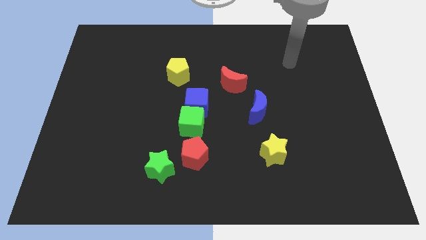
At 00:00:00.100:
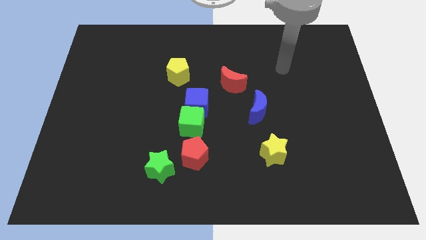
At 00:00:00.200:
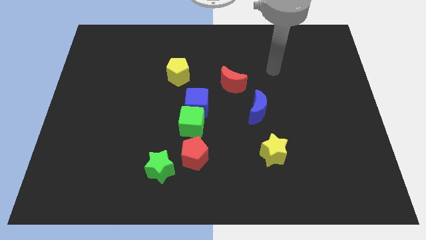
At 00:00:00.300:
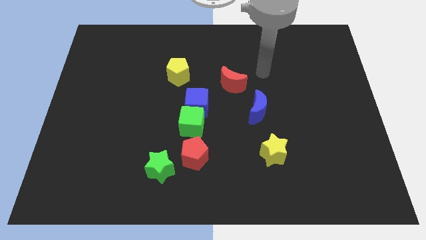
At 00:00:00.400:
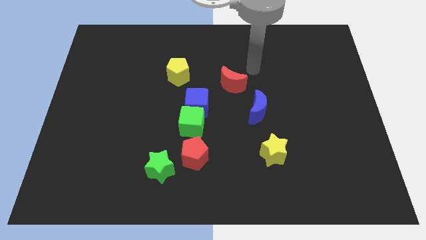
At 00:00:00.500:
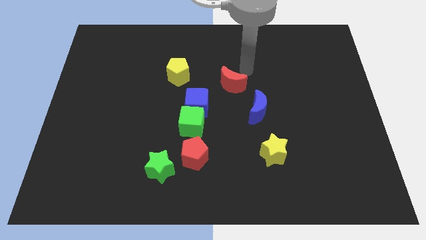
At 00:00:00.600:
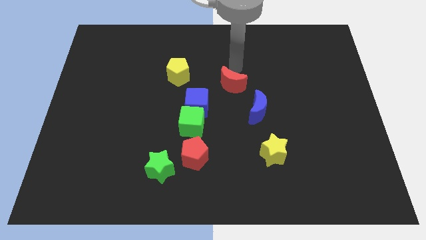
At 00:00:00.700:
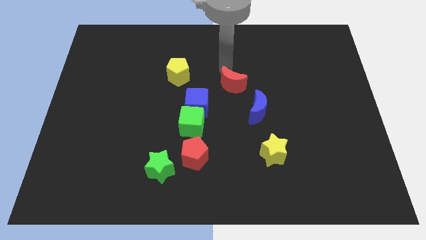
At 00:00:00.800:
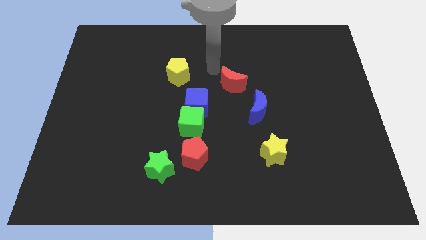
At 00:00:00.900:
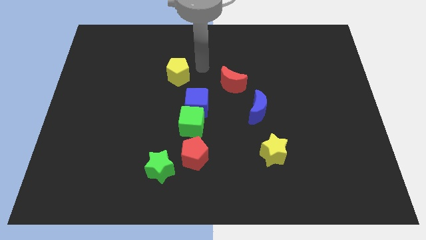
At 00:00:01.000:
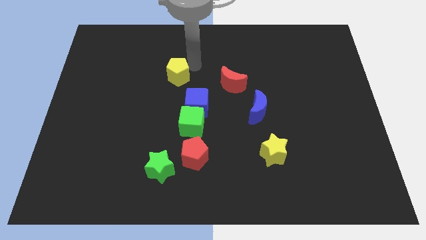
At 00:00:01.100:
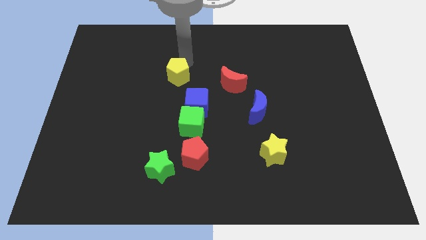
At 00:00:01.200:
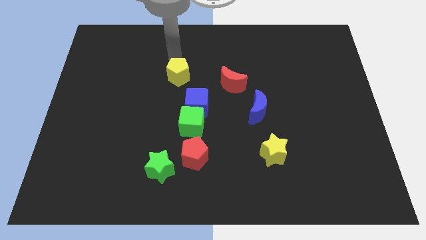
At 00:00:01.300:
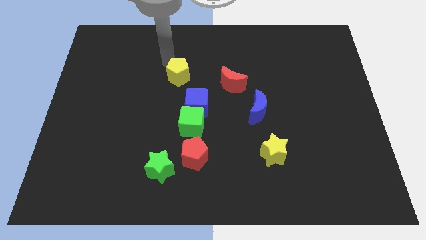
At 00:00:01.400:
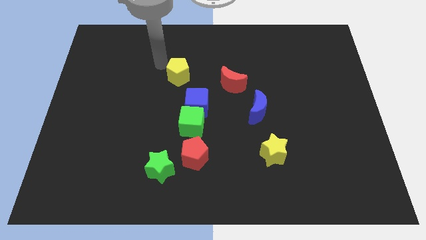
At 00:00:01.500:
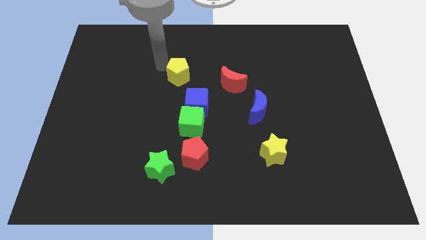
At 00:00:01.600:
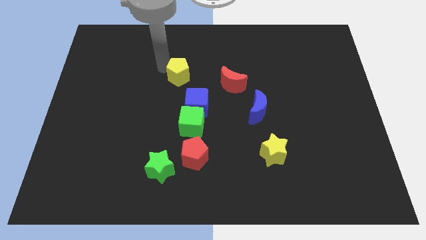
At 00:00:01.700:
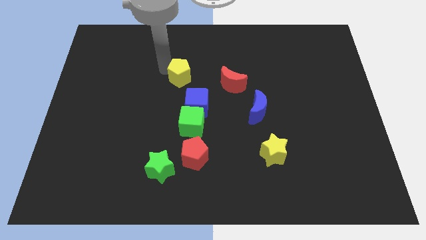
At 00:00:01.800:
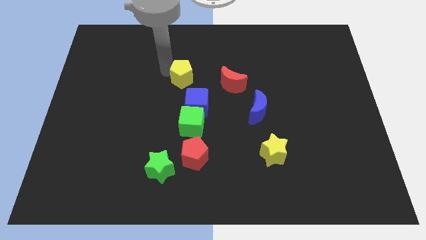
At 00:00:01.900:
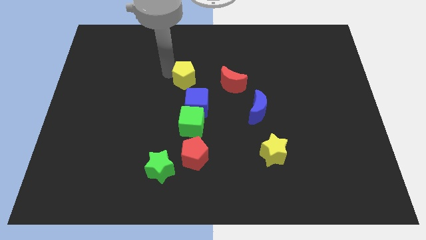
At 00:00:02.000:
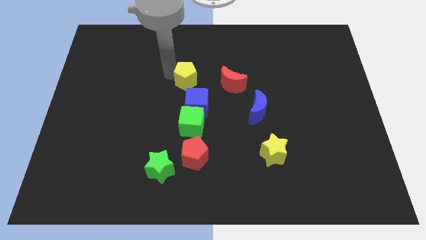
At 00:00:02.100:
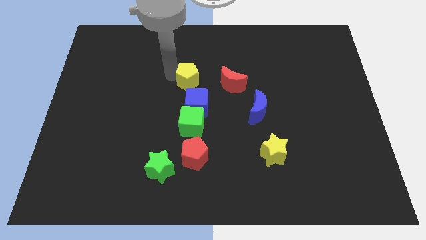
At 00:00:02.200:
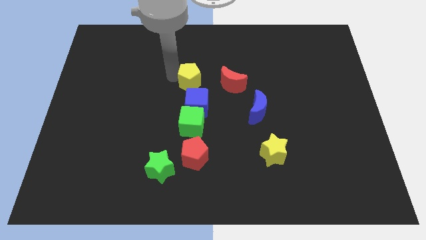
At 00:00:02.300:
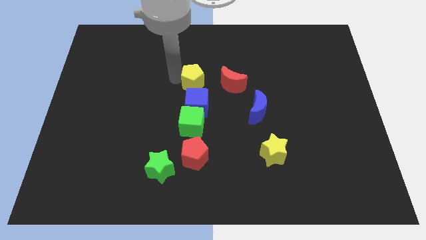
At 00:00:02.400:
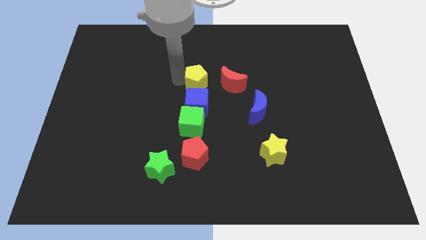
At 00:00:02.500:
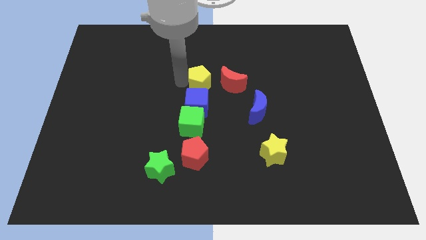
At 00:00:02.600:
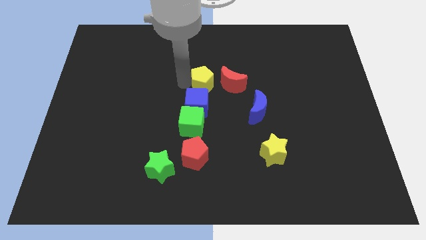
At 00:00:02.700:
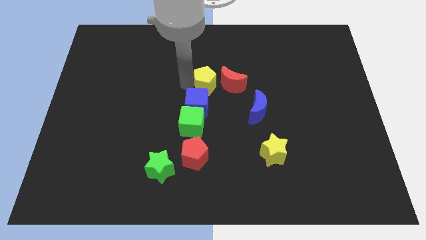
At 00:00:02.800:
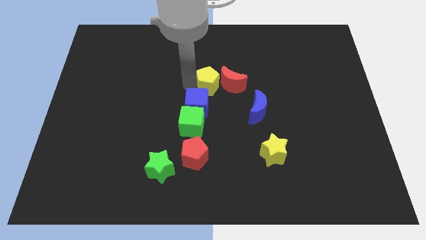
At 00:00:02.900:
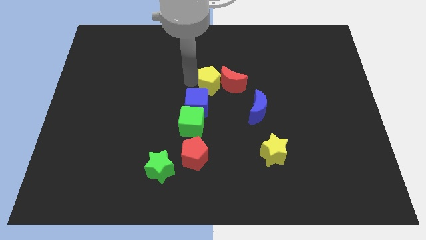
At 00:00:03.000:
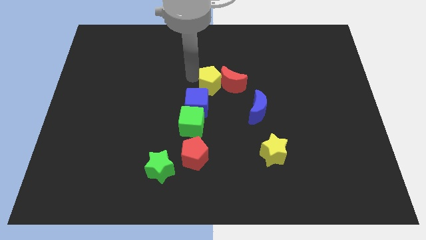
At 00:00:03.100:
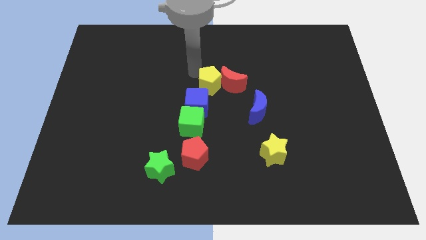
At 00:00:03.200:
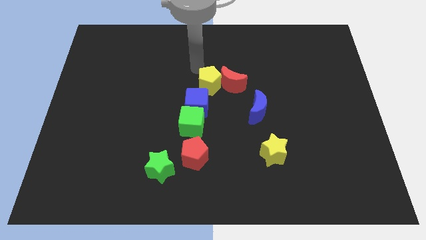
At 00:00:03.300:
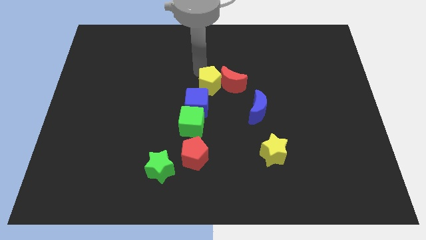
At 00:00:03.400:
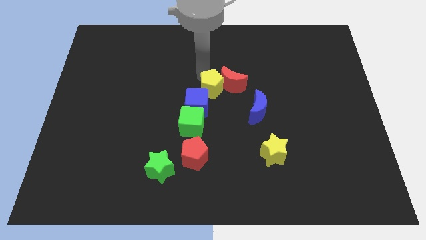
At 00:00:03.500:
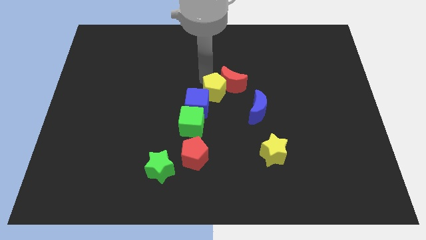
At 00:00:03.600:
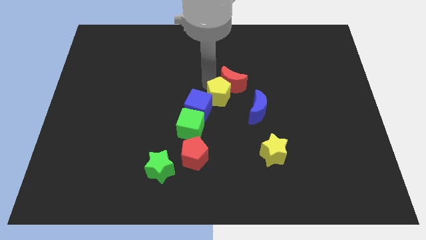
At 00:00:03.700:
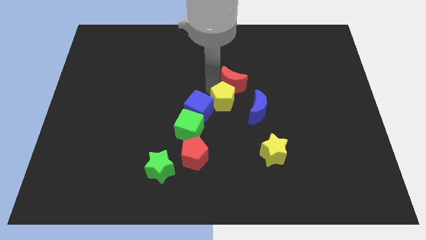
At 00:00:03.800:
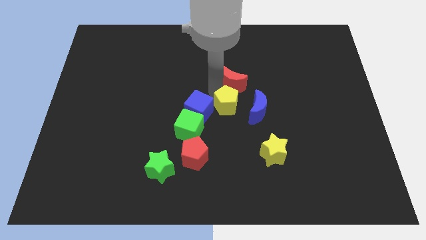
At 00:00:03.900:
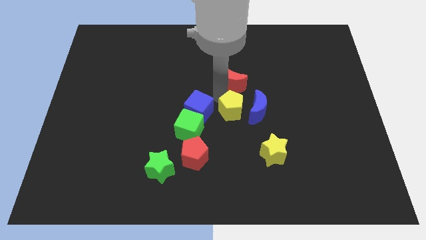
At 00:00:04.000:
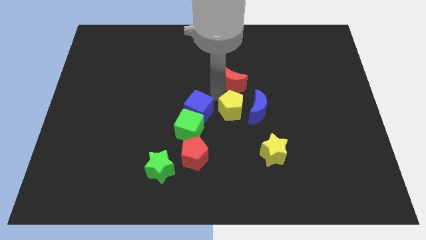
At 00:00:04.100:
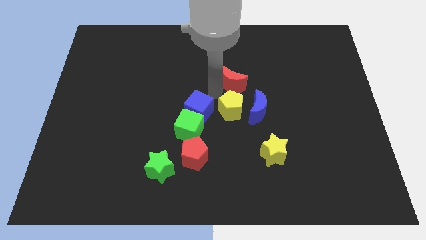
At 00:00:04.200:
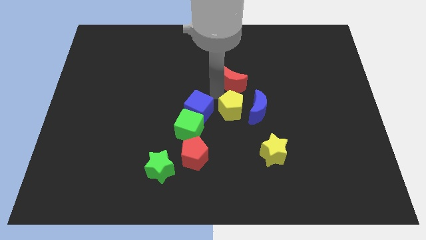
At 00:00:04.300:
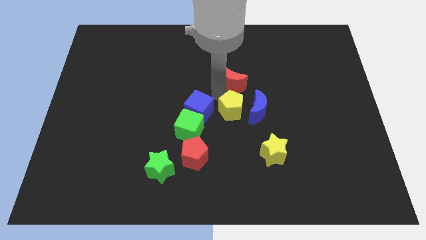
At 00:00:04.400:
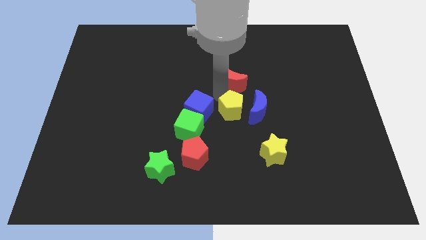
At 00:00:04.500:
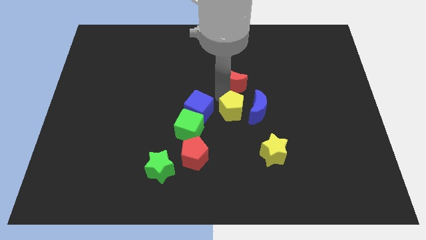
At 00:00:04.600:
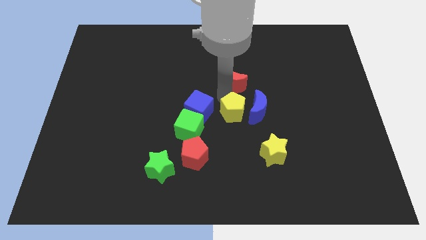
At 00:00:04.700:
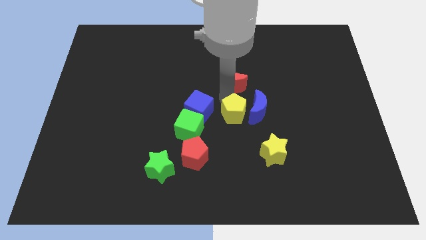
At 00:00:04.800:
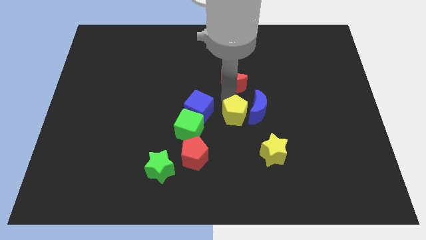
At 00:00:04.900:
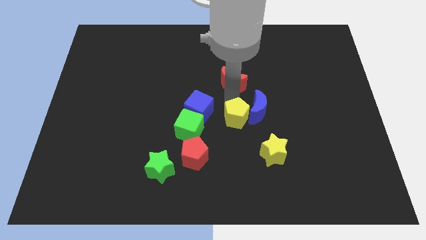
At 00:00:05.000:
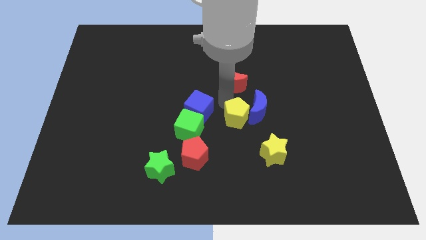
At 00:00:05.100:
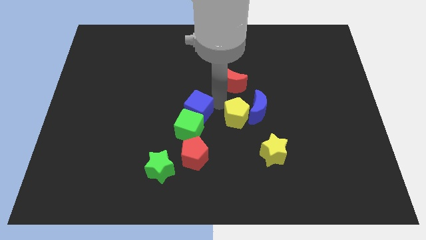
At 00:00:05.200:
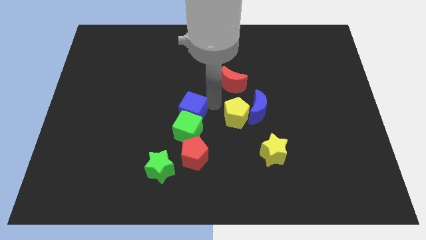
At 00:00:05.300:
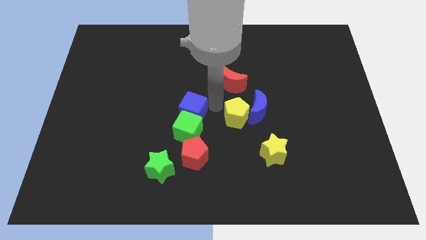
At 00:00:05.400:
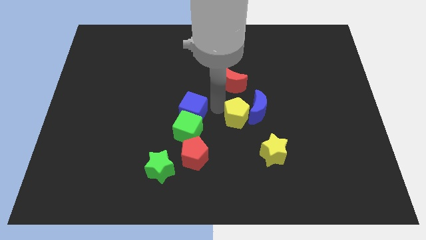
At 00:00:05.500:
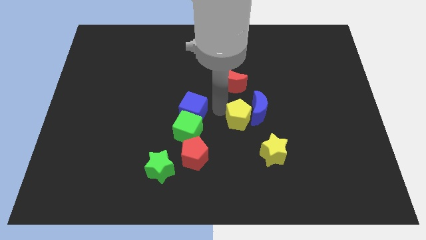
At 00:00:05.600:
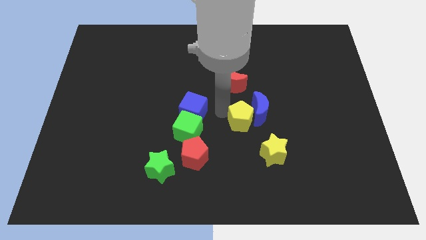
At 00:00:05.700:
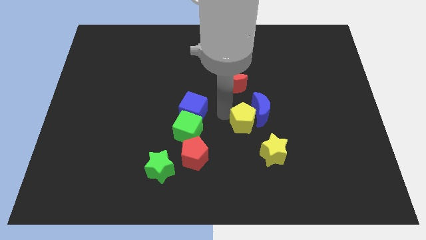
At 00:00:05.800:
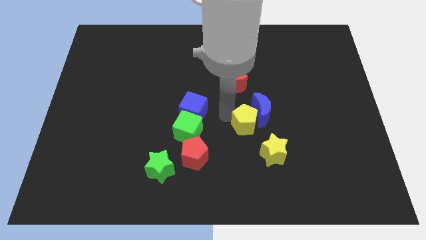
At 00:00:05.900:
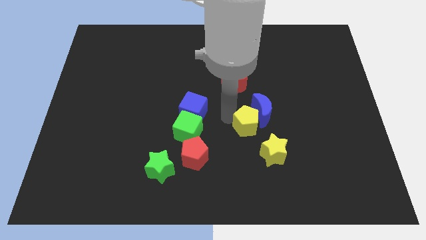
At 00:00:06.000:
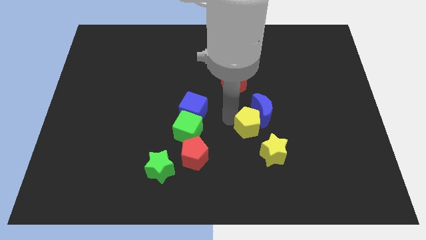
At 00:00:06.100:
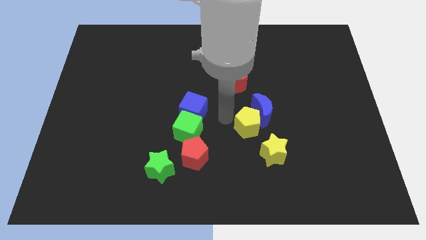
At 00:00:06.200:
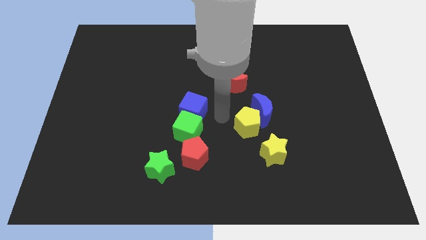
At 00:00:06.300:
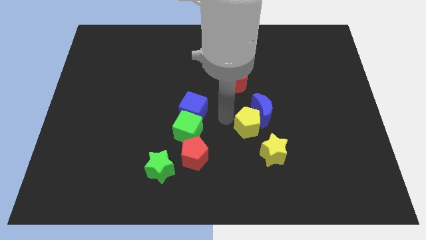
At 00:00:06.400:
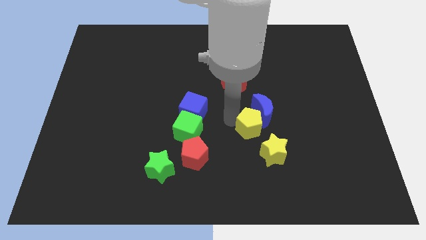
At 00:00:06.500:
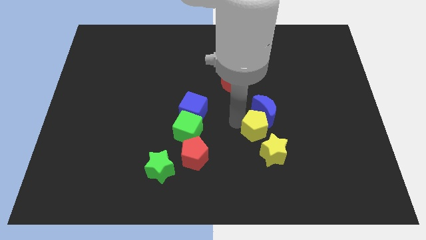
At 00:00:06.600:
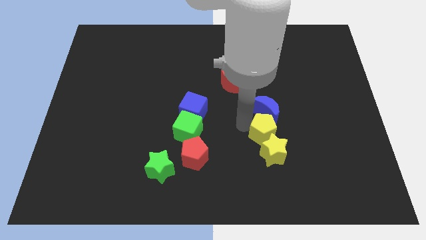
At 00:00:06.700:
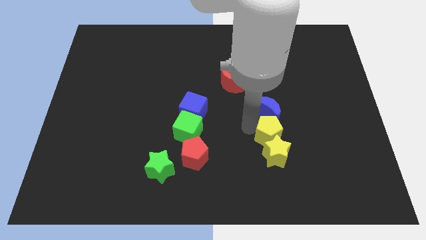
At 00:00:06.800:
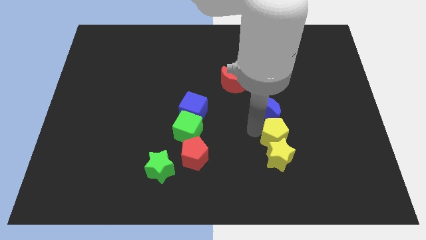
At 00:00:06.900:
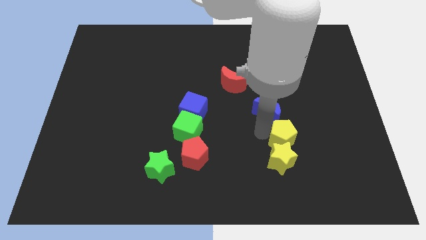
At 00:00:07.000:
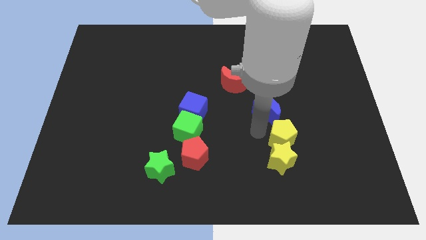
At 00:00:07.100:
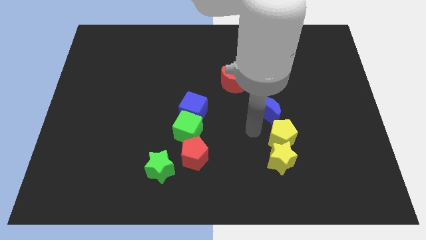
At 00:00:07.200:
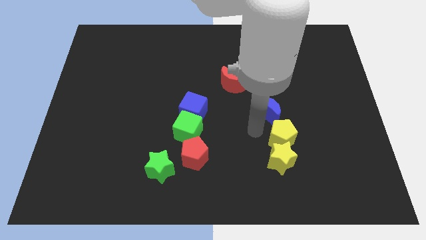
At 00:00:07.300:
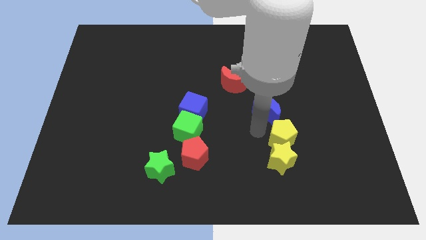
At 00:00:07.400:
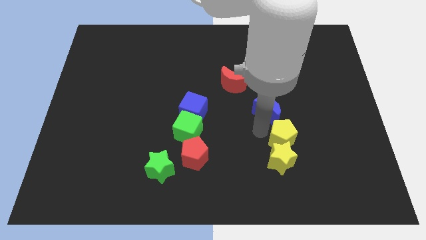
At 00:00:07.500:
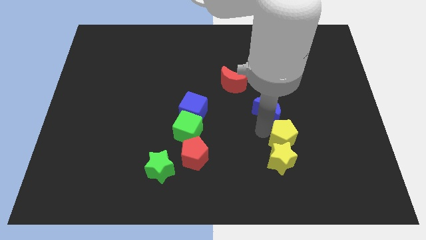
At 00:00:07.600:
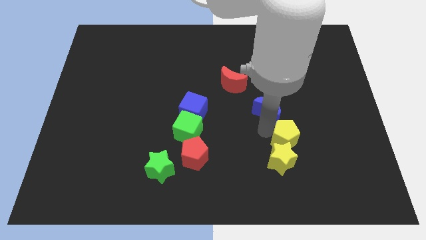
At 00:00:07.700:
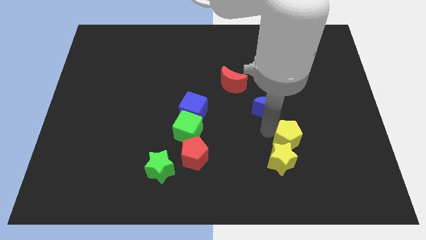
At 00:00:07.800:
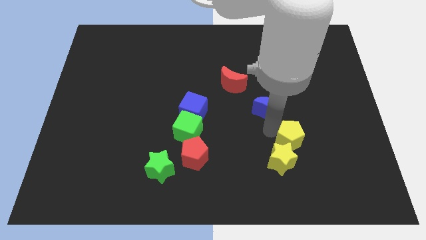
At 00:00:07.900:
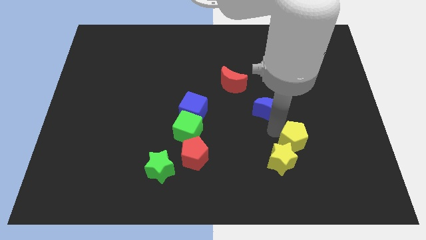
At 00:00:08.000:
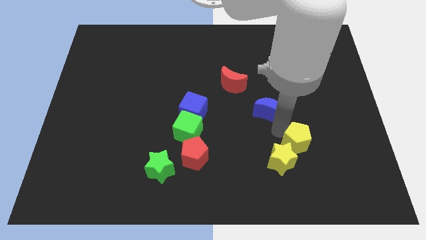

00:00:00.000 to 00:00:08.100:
push the yellow pentagon right of the yellow star
